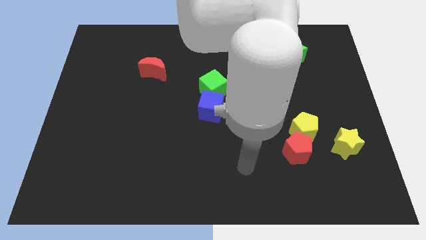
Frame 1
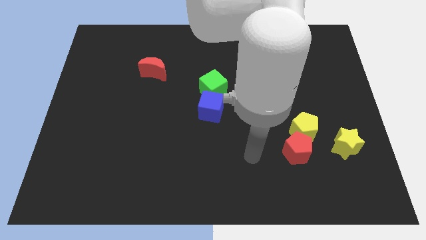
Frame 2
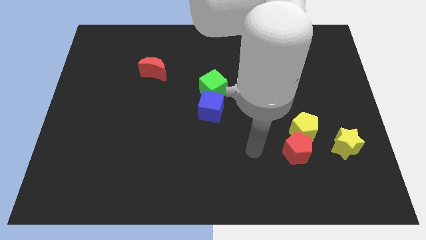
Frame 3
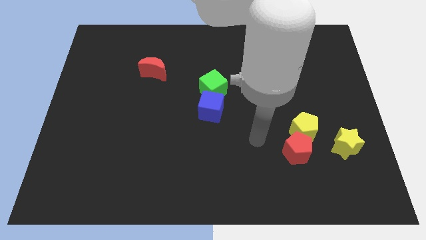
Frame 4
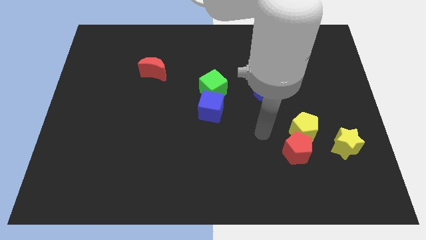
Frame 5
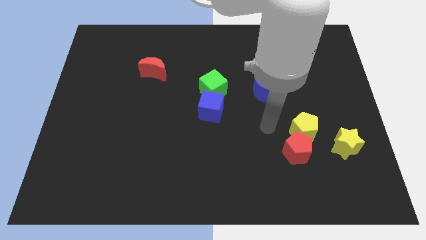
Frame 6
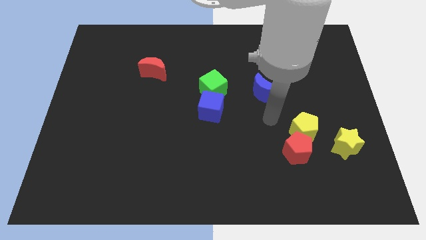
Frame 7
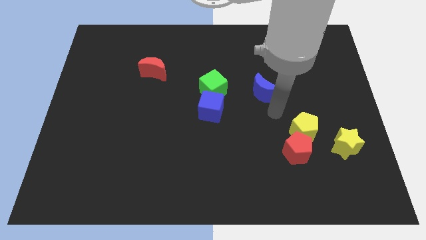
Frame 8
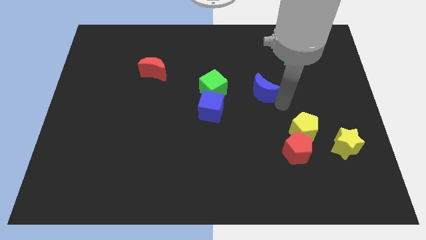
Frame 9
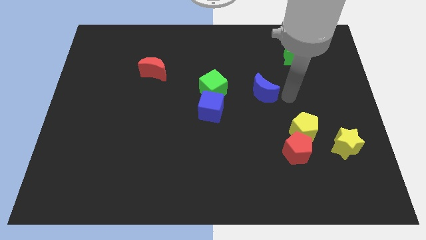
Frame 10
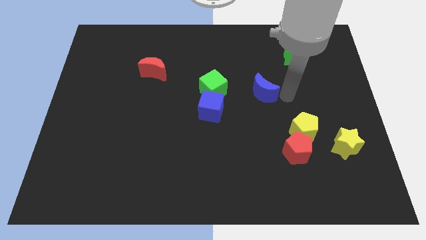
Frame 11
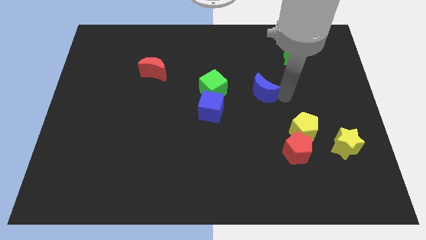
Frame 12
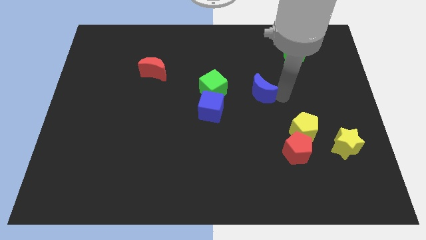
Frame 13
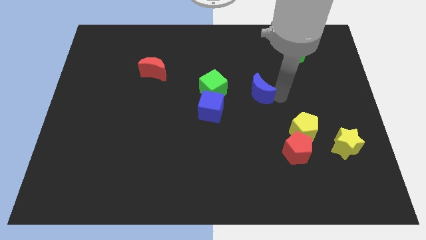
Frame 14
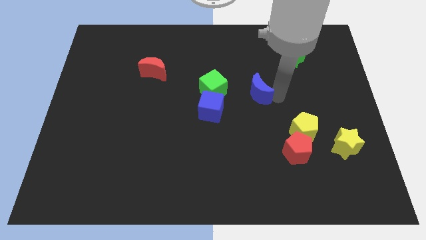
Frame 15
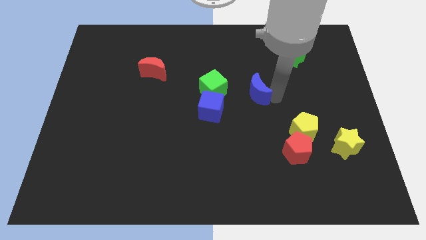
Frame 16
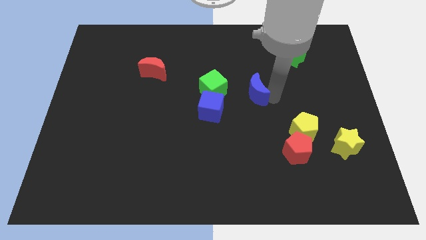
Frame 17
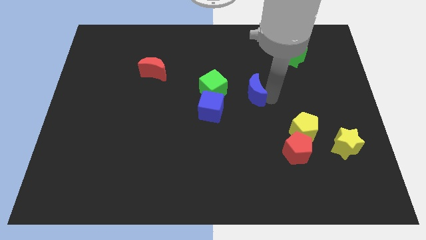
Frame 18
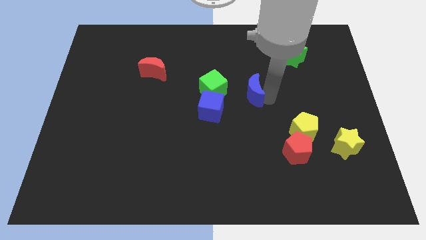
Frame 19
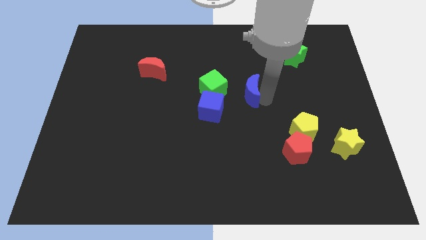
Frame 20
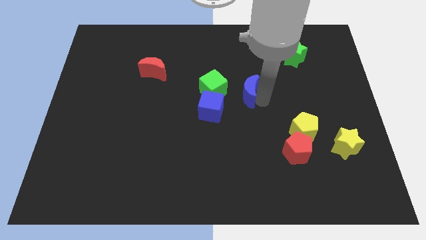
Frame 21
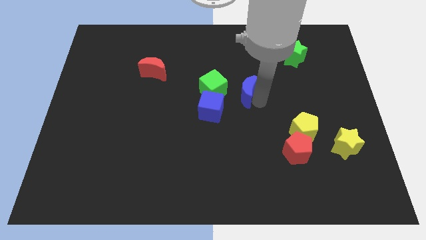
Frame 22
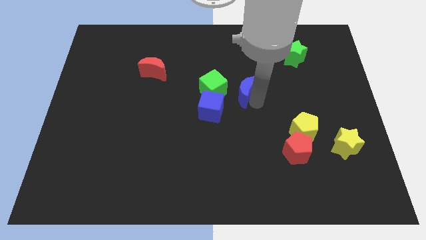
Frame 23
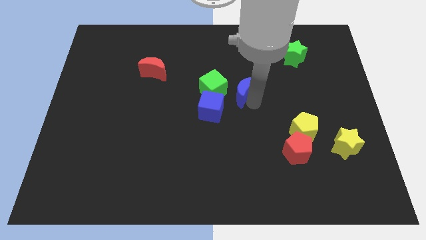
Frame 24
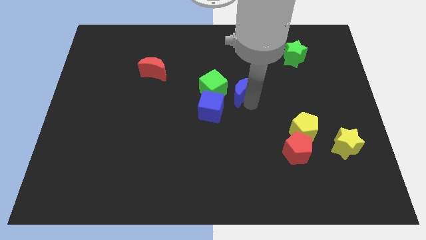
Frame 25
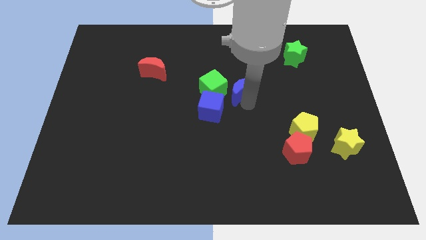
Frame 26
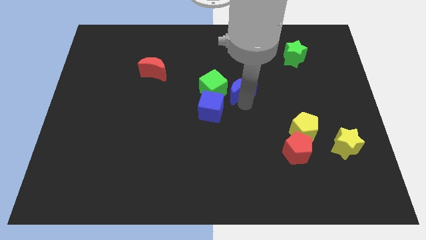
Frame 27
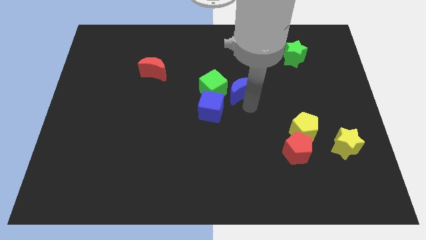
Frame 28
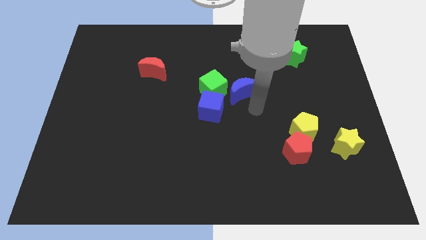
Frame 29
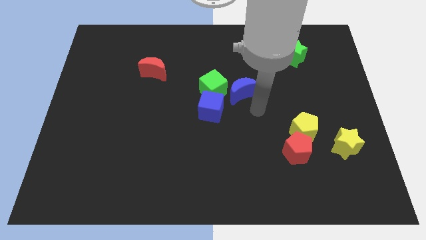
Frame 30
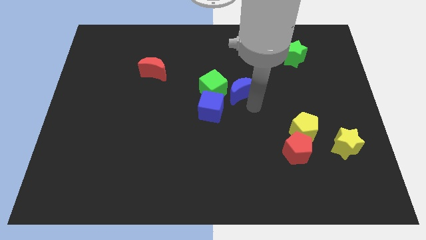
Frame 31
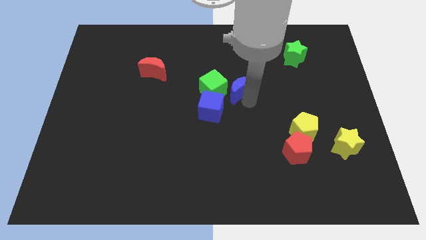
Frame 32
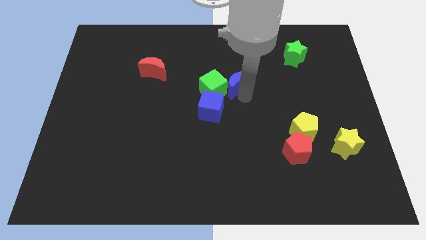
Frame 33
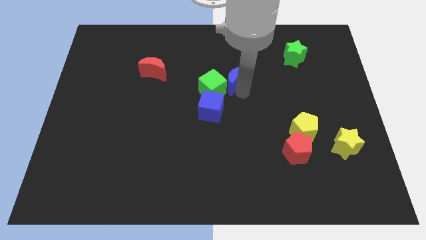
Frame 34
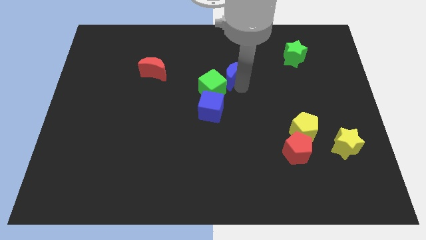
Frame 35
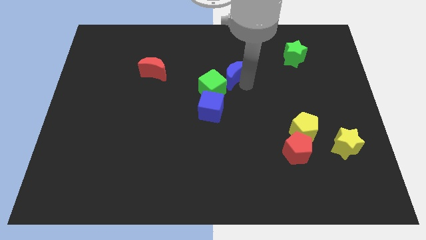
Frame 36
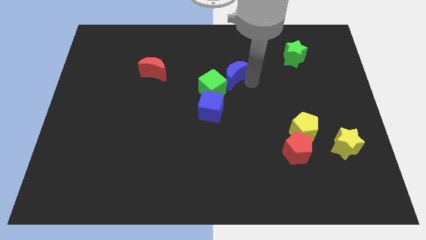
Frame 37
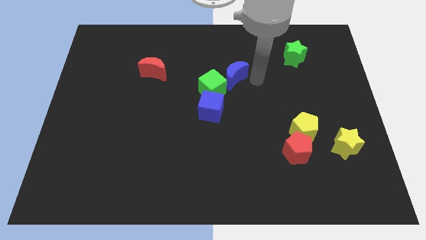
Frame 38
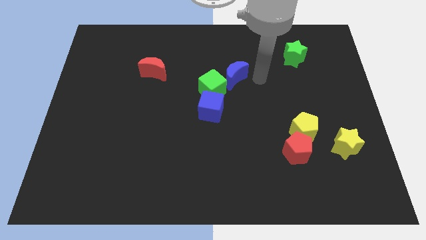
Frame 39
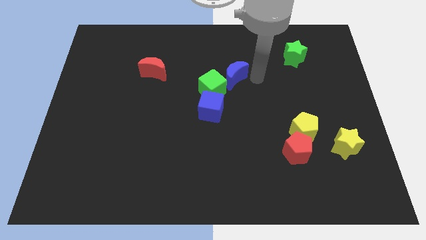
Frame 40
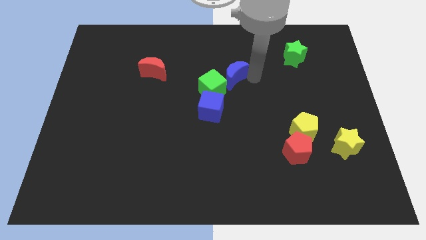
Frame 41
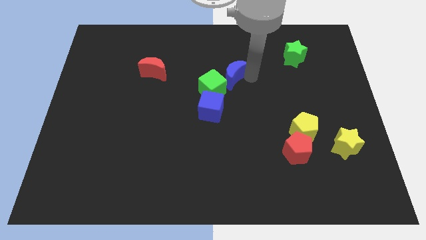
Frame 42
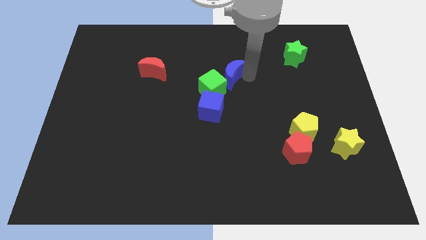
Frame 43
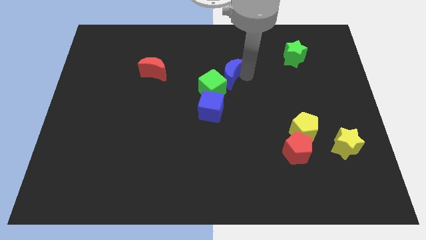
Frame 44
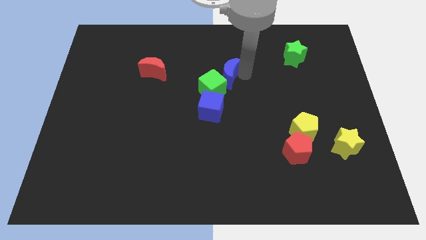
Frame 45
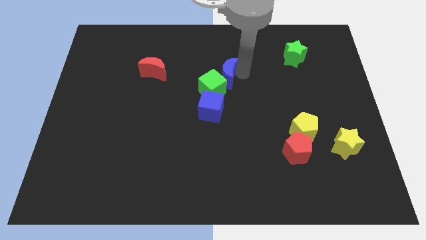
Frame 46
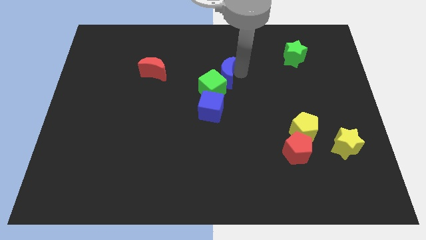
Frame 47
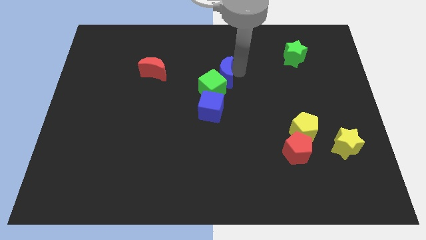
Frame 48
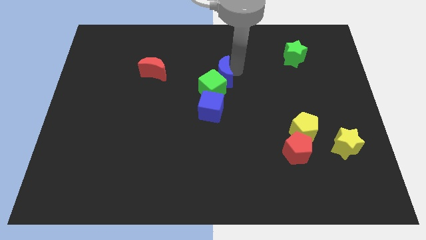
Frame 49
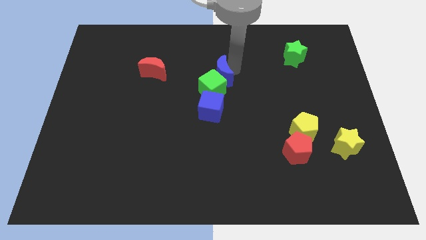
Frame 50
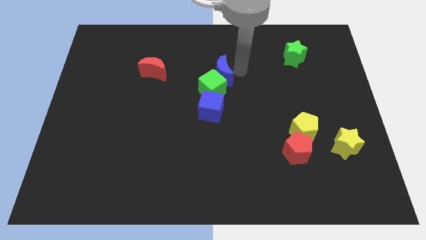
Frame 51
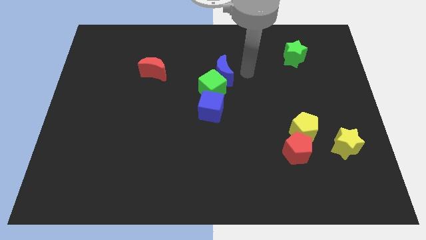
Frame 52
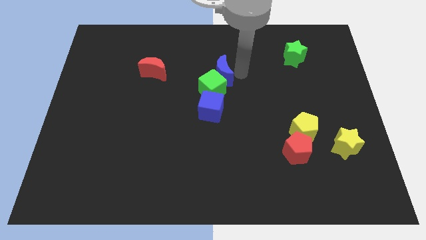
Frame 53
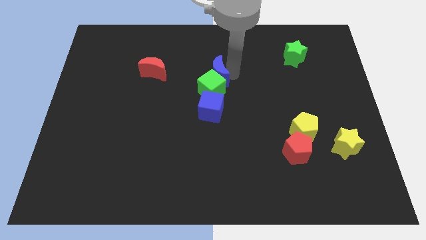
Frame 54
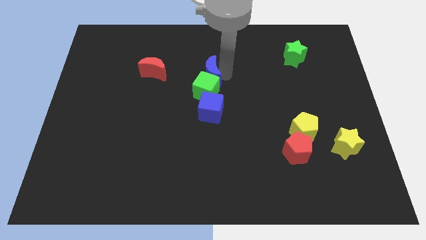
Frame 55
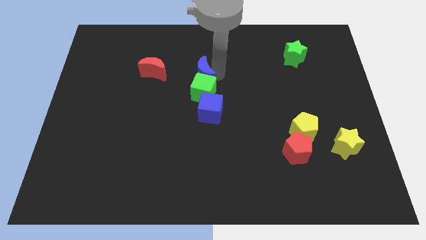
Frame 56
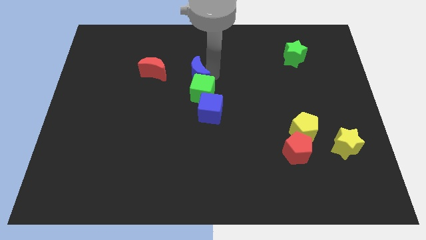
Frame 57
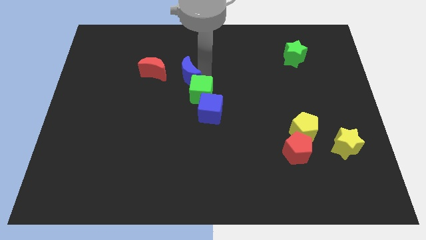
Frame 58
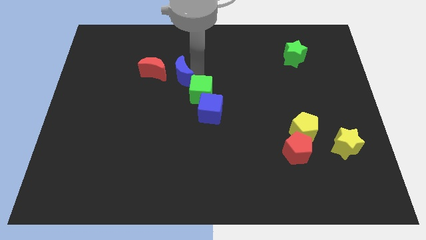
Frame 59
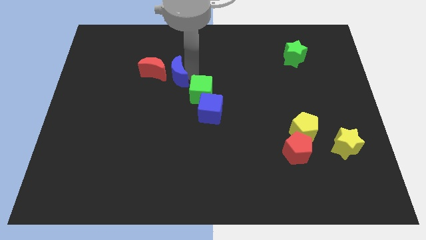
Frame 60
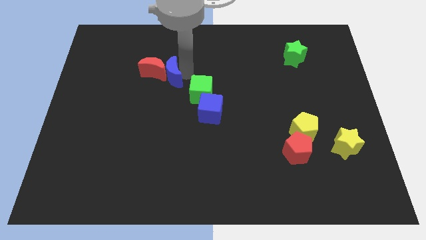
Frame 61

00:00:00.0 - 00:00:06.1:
move the blue moon to the left

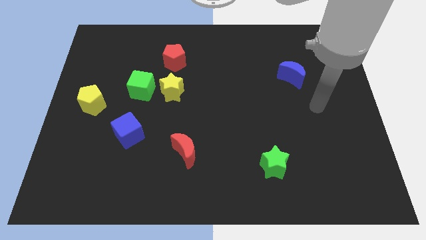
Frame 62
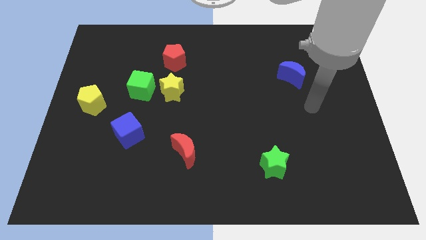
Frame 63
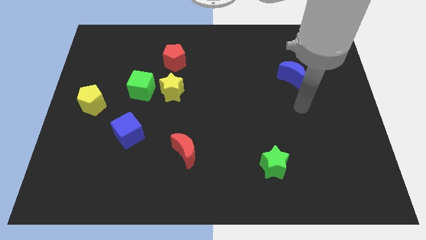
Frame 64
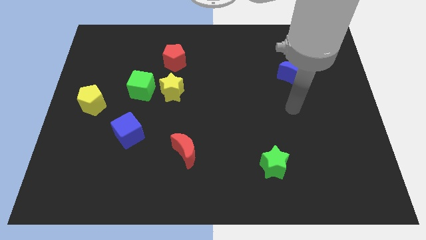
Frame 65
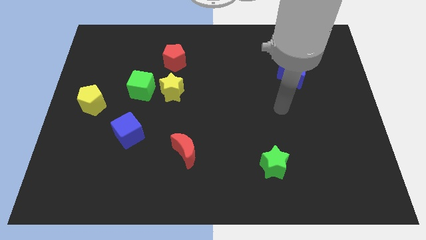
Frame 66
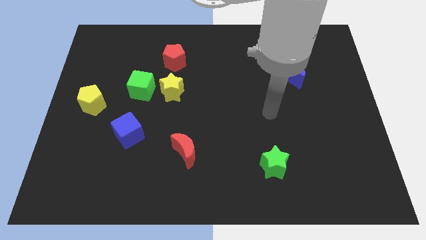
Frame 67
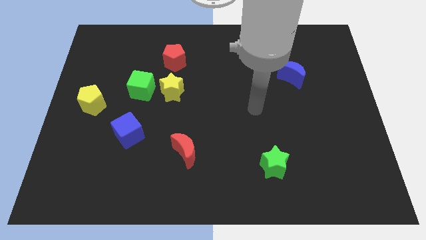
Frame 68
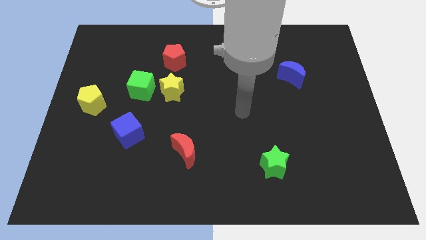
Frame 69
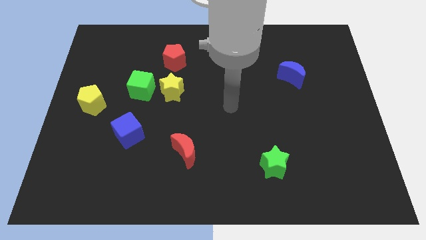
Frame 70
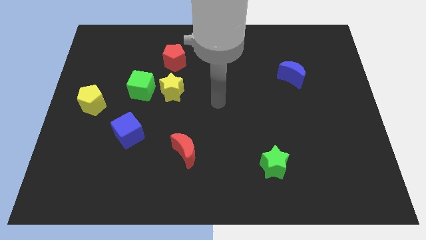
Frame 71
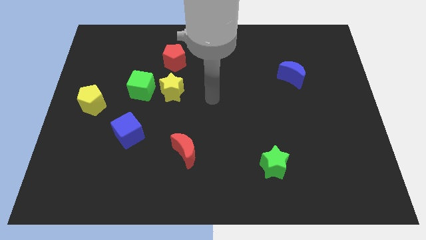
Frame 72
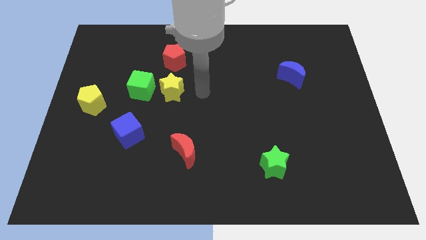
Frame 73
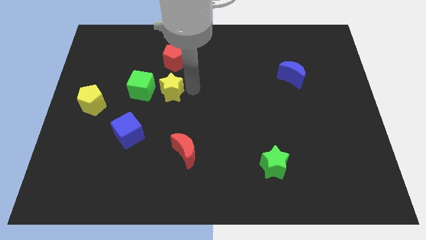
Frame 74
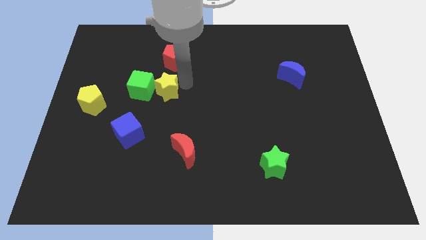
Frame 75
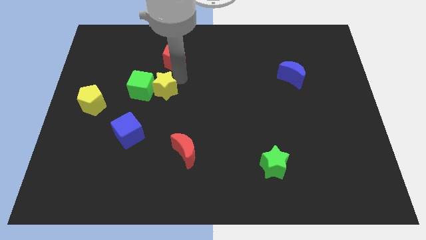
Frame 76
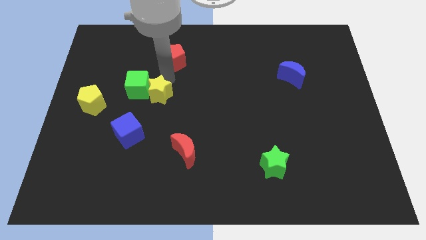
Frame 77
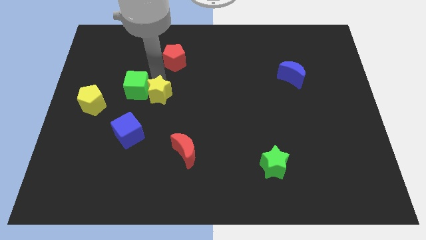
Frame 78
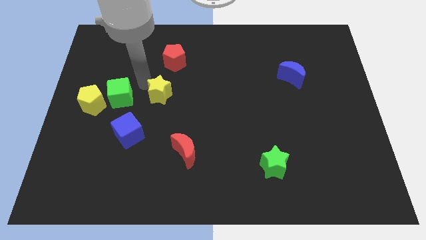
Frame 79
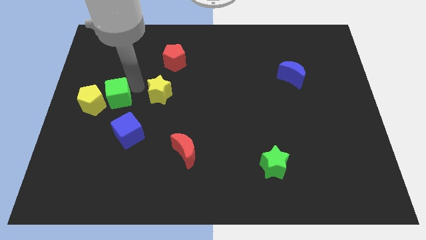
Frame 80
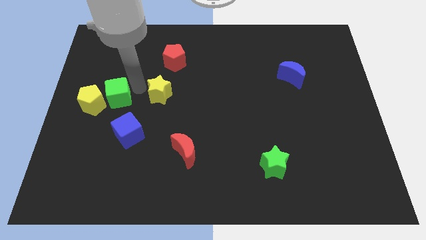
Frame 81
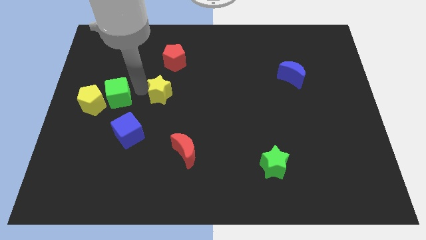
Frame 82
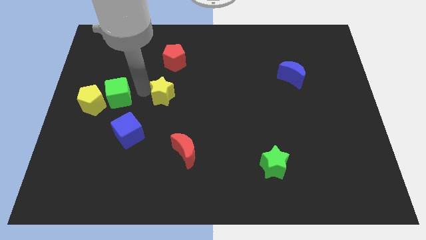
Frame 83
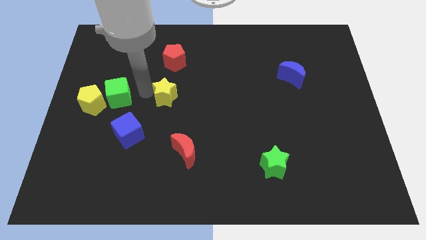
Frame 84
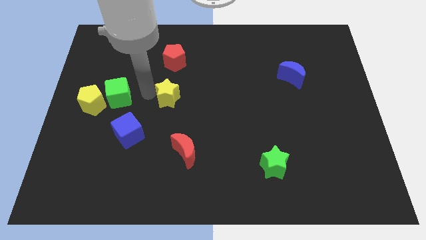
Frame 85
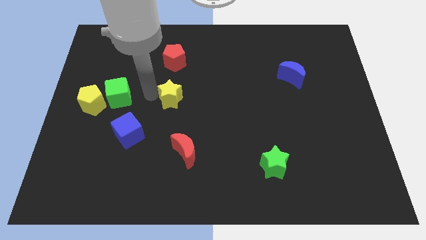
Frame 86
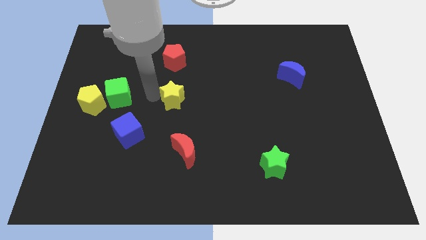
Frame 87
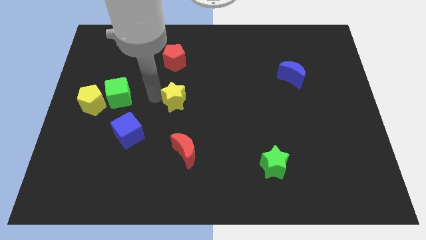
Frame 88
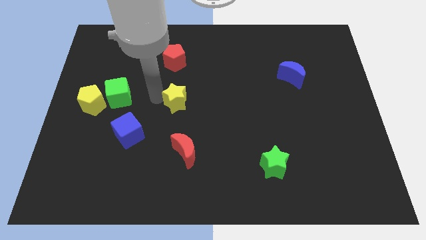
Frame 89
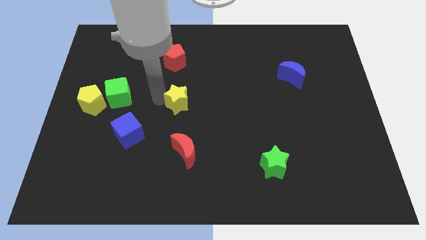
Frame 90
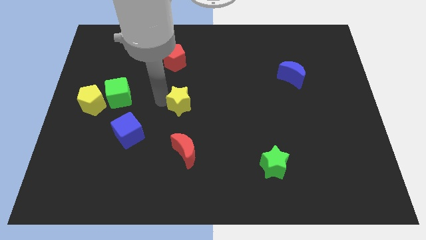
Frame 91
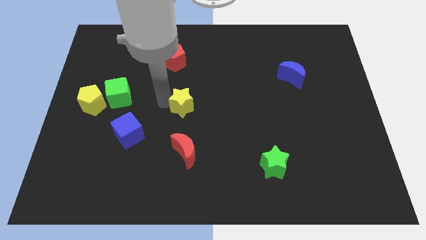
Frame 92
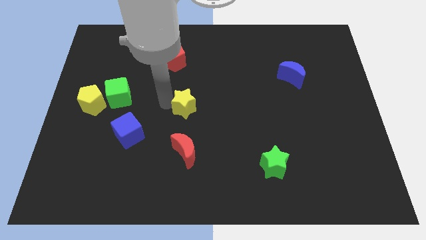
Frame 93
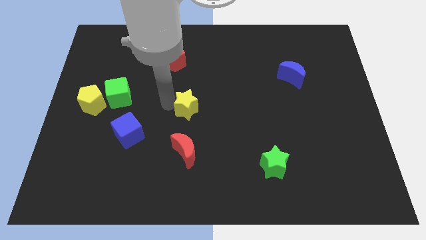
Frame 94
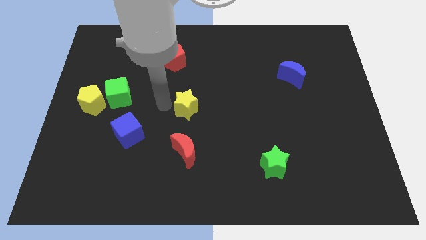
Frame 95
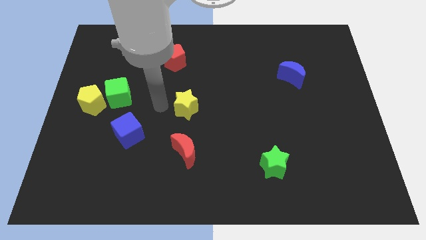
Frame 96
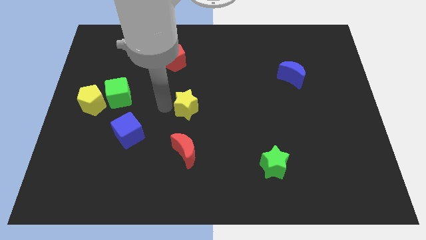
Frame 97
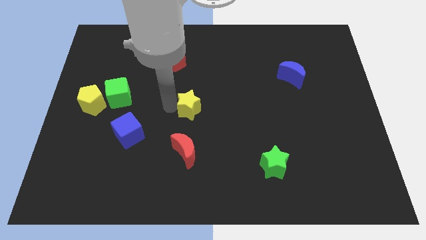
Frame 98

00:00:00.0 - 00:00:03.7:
move the yellow star a little diagonally down and right
